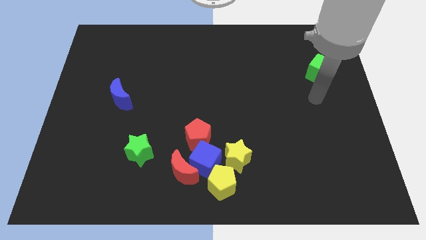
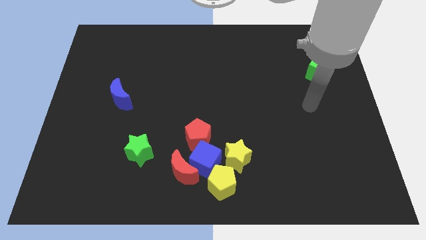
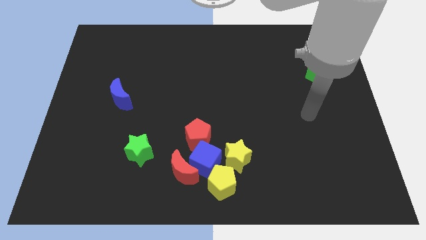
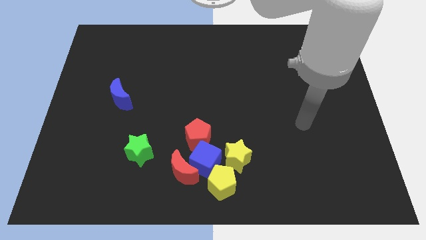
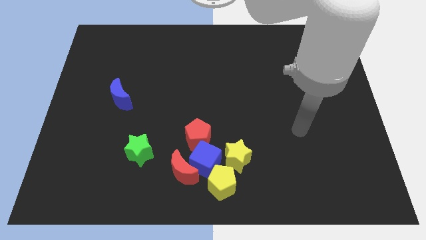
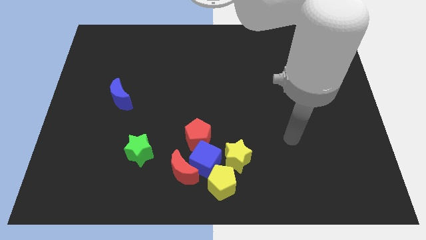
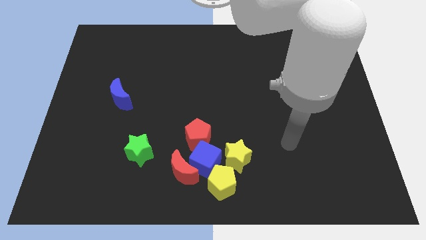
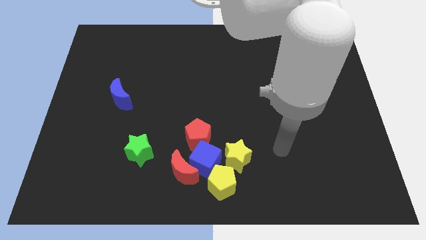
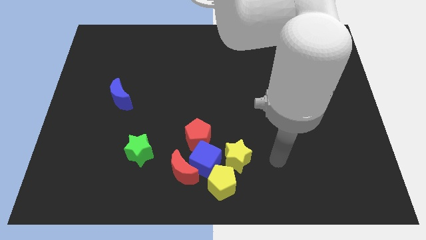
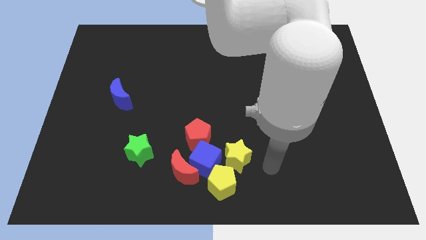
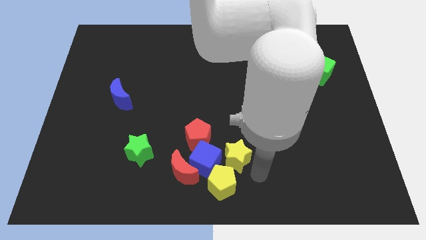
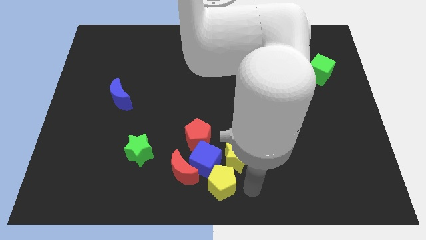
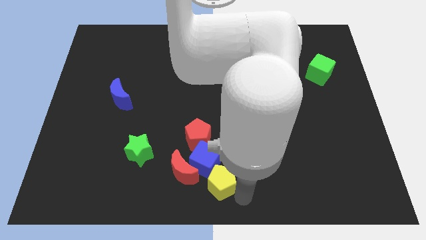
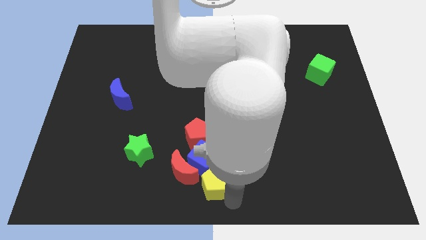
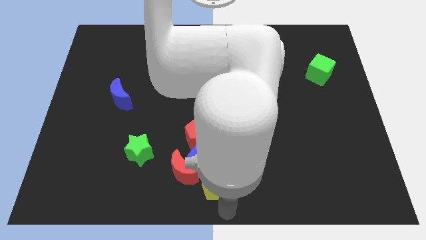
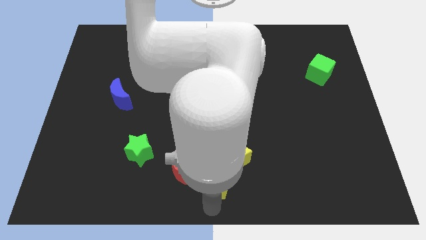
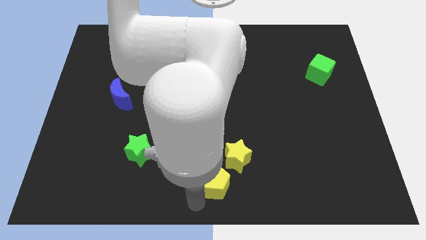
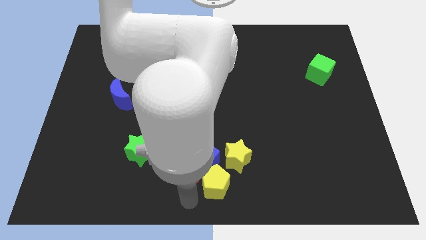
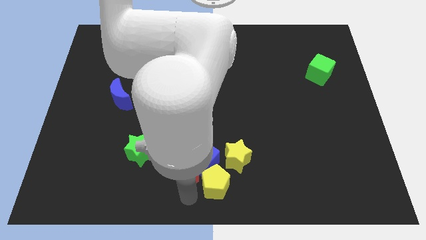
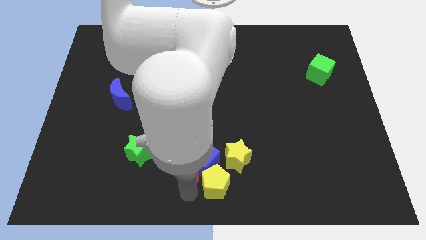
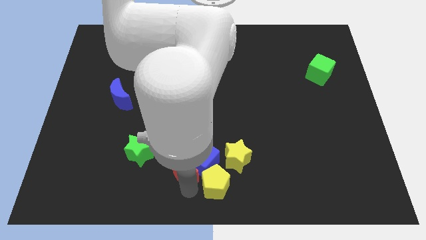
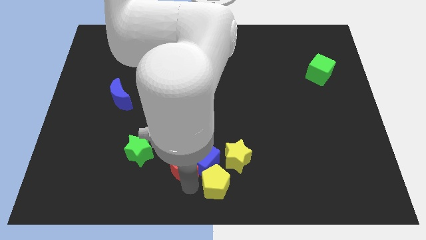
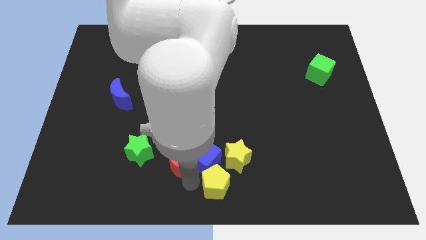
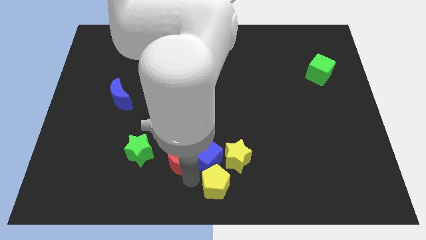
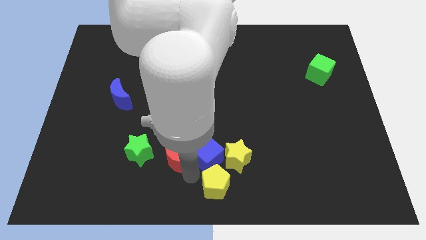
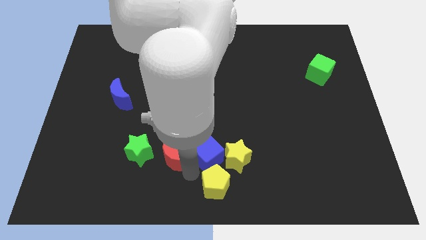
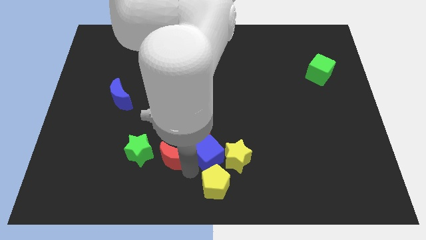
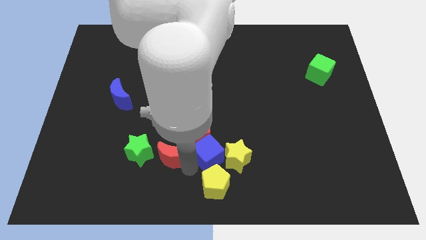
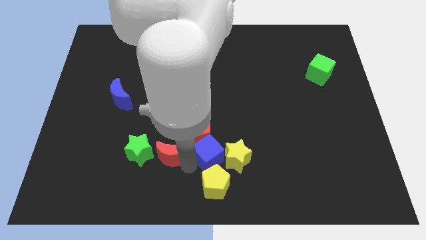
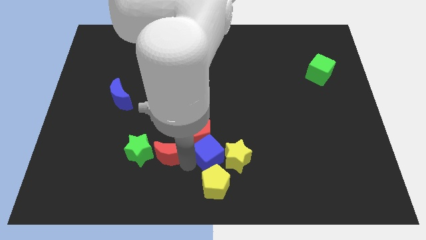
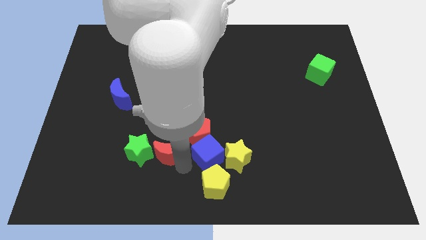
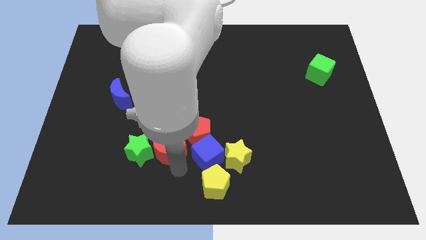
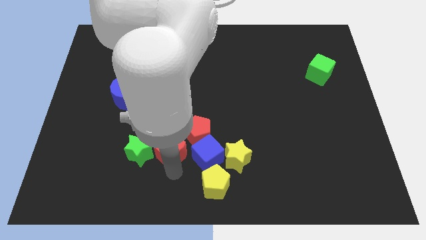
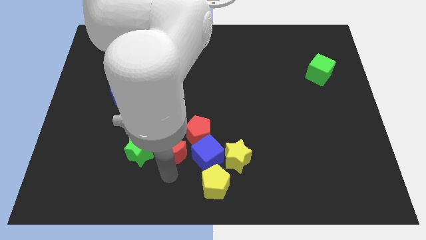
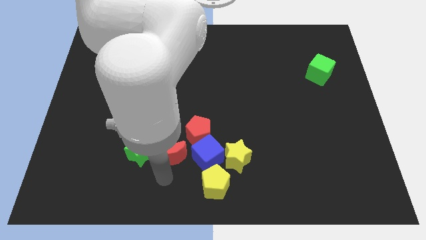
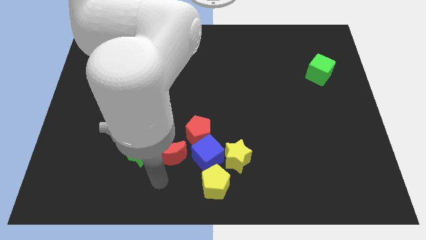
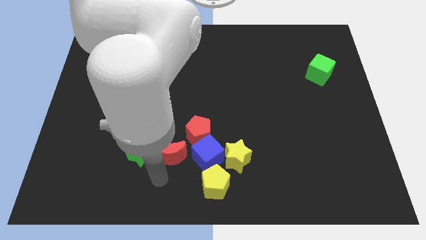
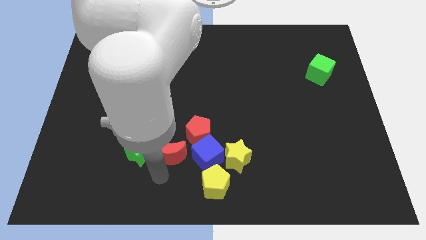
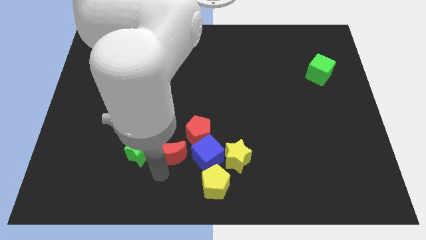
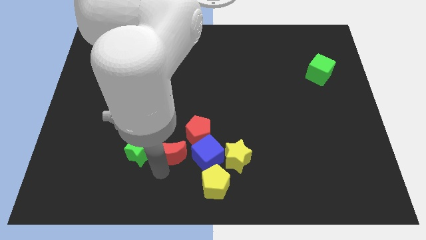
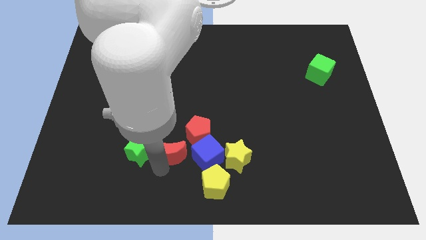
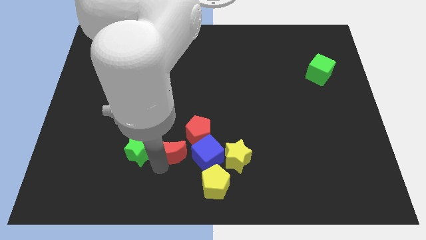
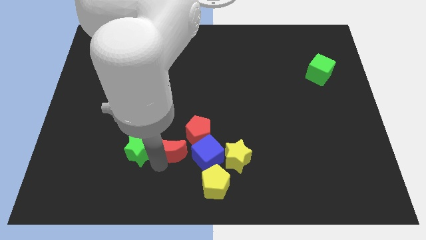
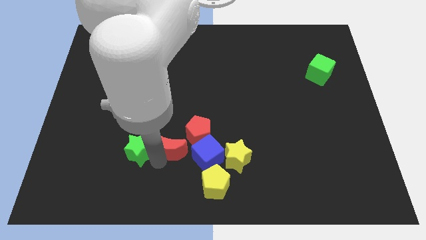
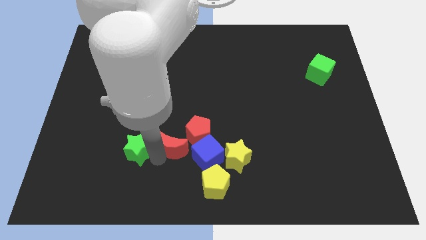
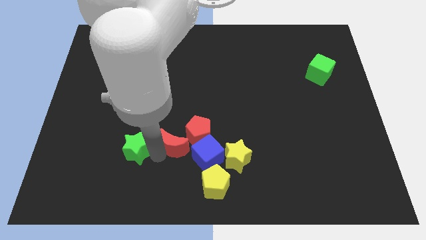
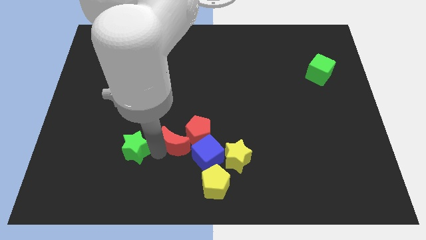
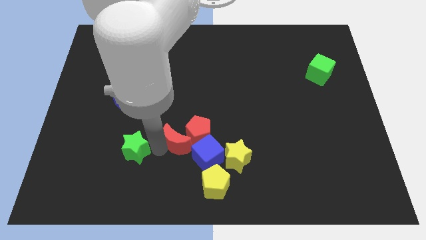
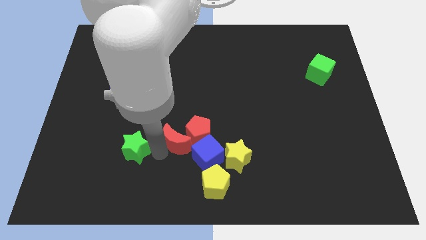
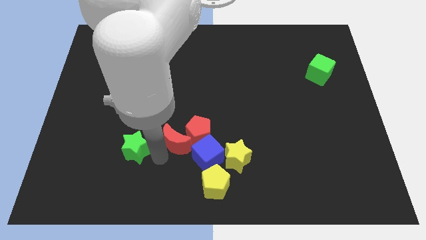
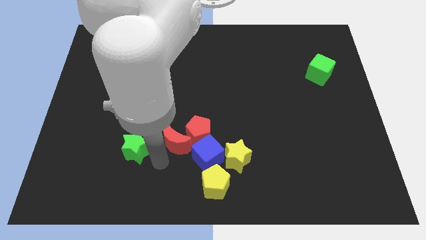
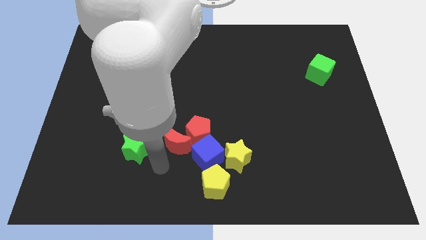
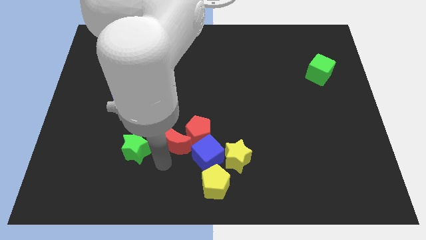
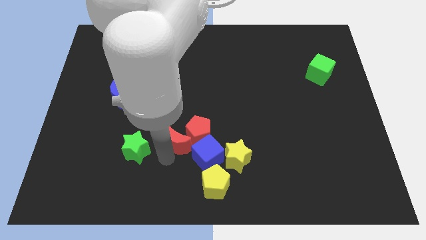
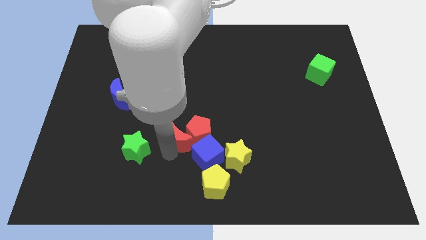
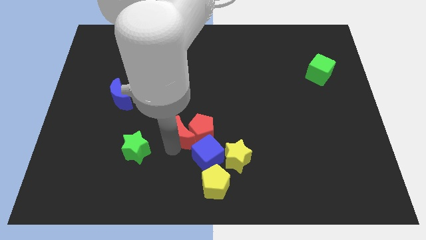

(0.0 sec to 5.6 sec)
push the red moon to the middle of the board

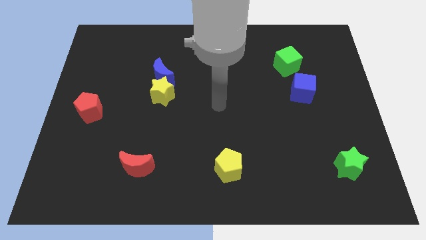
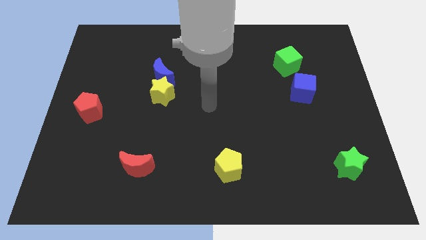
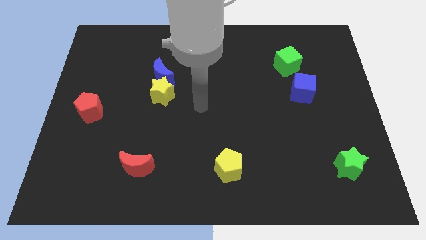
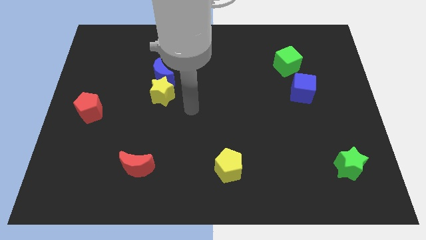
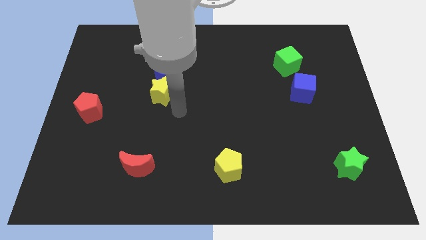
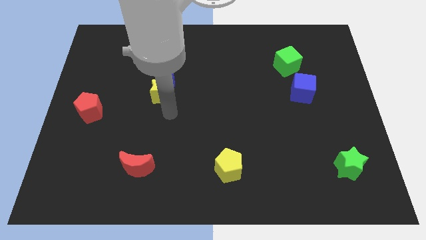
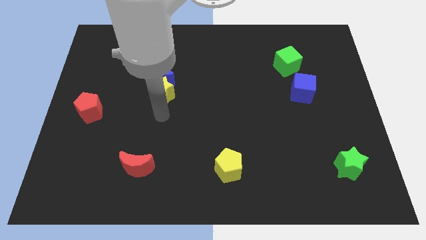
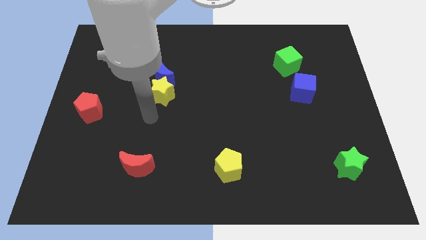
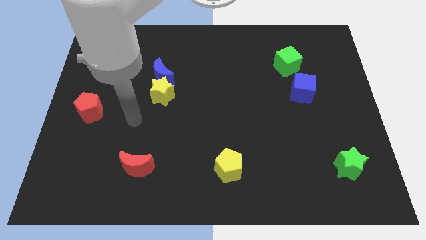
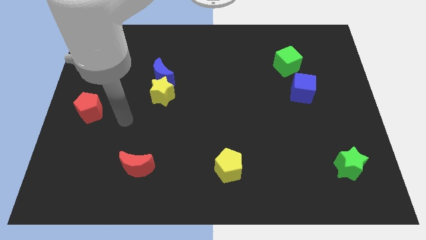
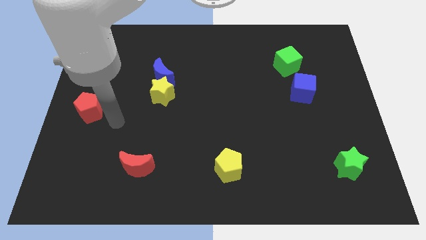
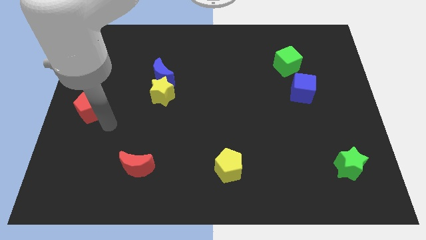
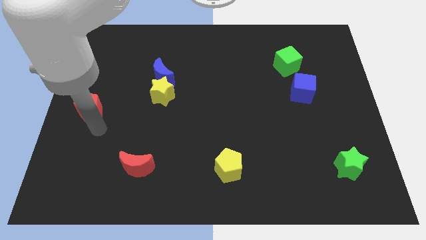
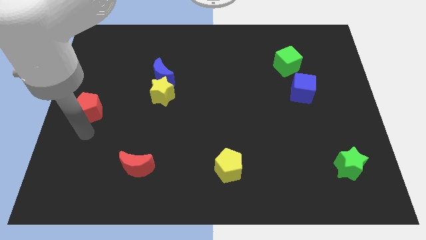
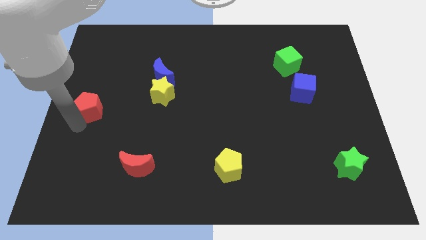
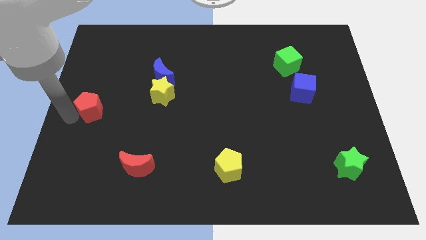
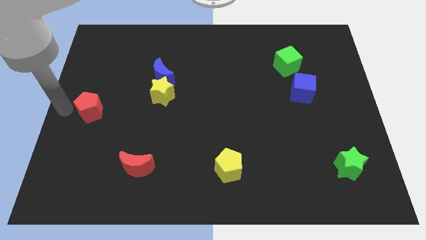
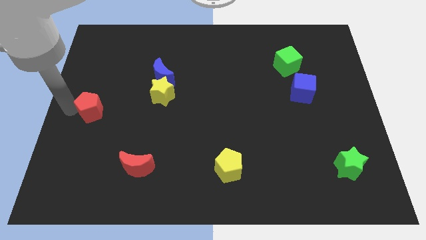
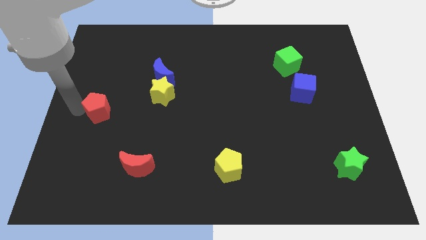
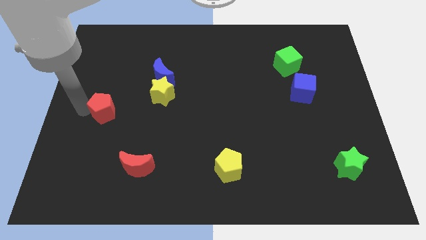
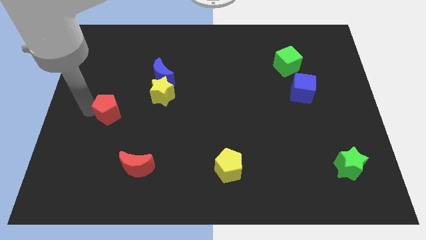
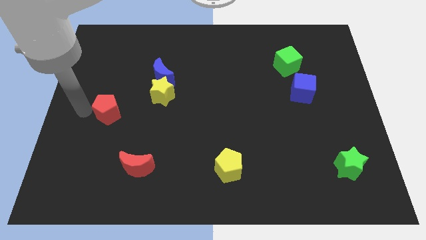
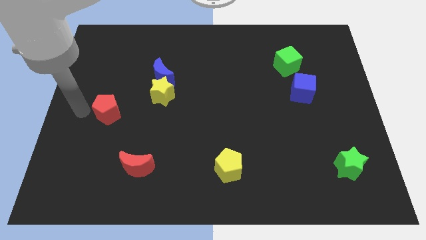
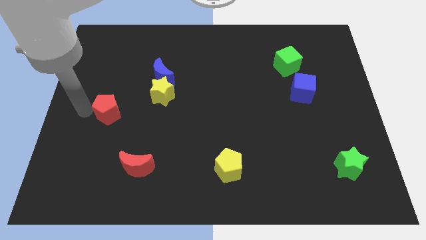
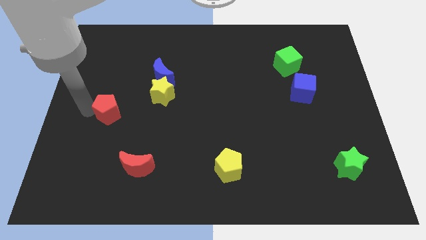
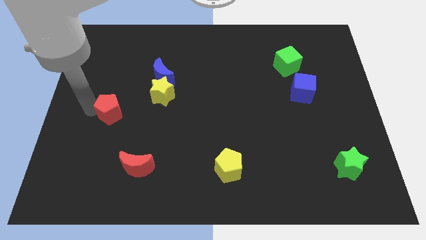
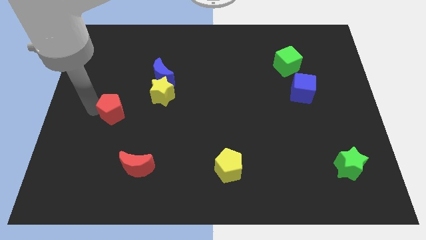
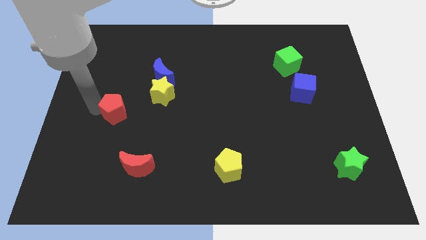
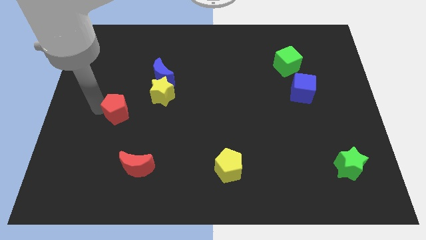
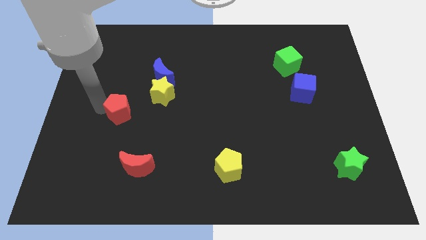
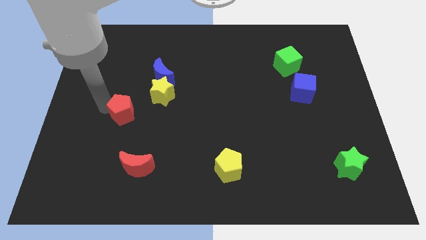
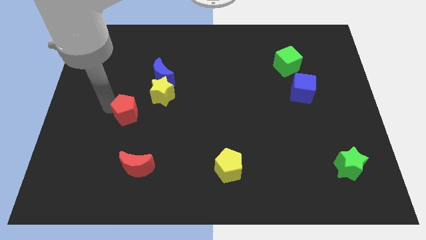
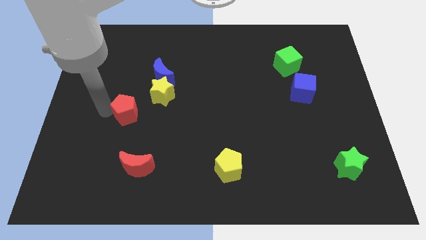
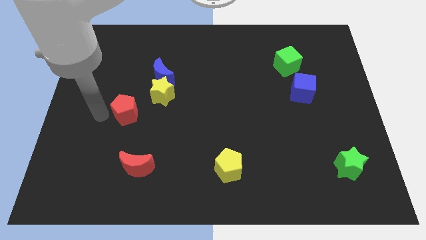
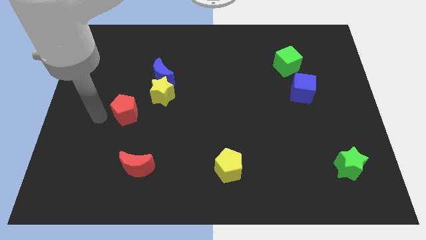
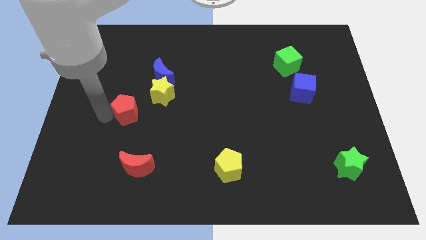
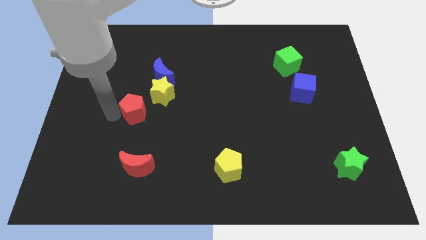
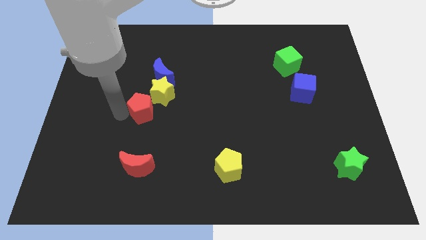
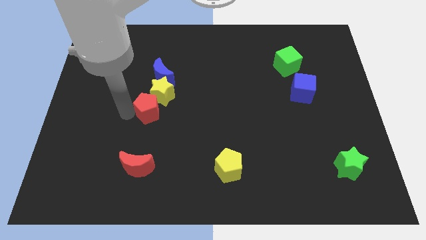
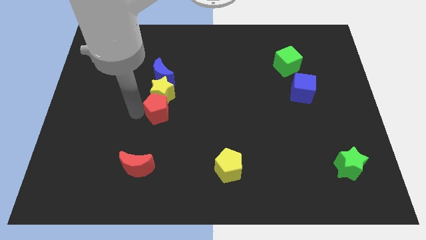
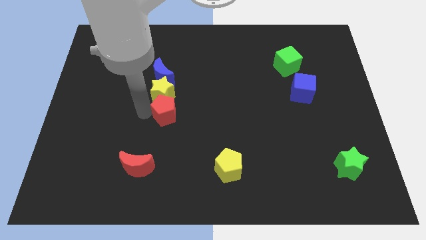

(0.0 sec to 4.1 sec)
move the red pentagon to the center
